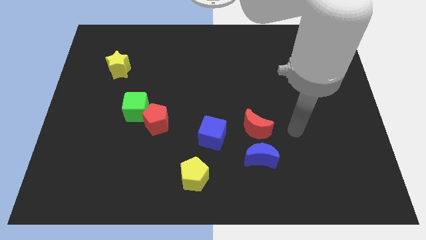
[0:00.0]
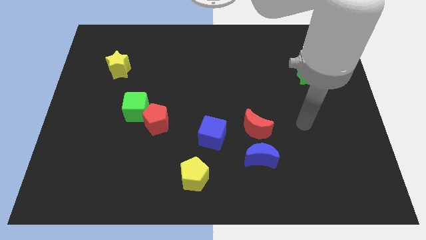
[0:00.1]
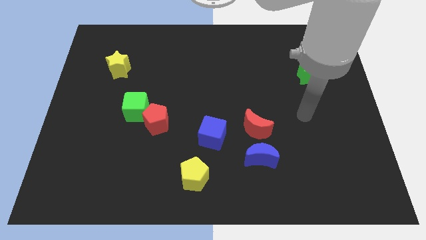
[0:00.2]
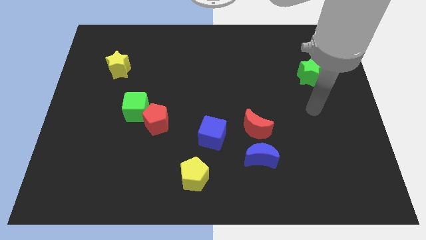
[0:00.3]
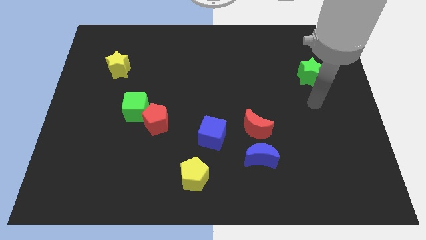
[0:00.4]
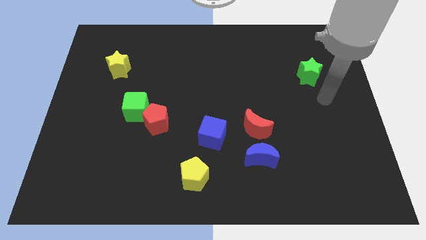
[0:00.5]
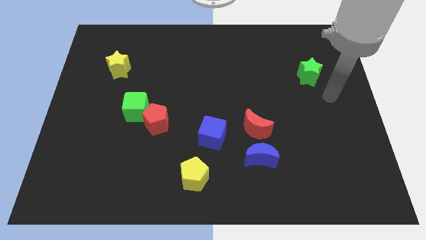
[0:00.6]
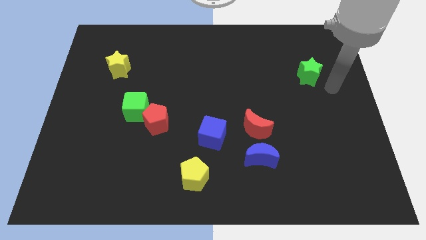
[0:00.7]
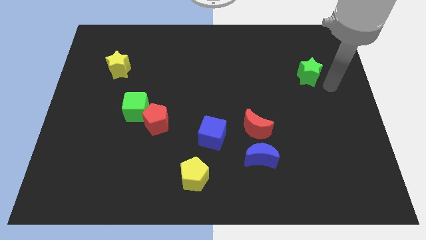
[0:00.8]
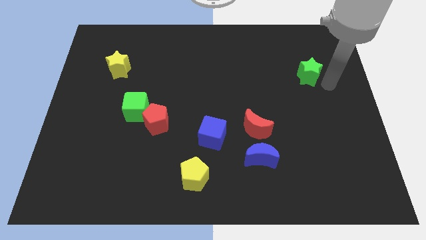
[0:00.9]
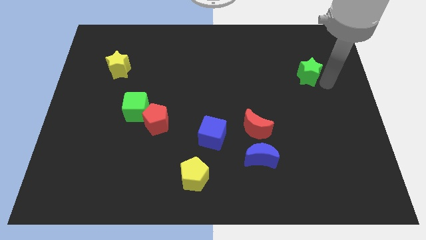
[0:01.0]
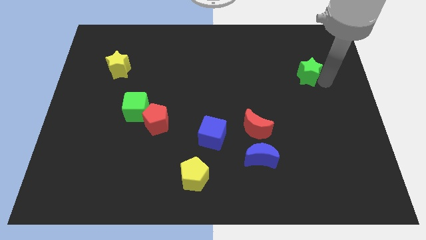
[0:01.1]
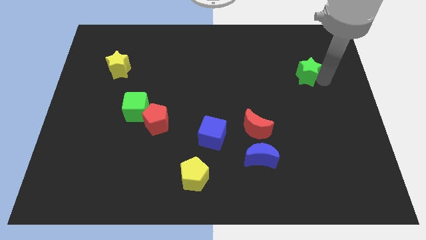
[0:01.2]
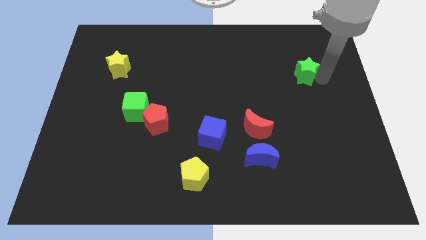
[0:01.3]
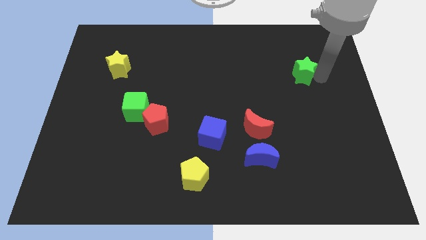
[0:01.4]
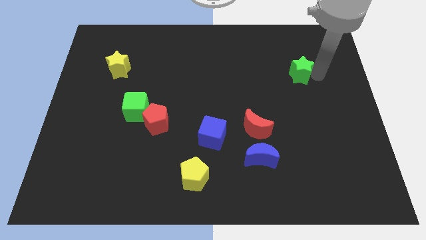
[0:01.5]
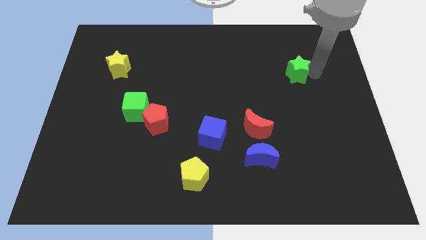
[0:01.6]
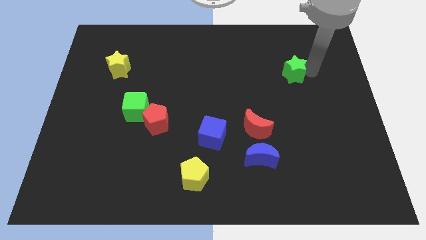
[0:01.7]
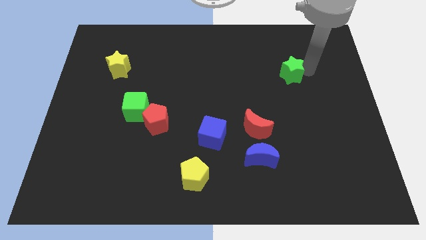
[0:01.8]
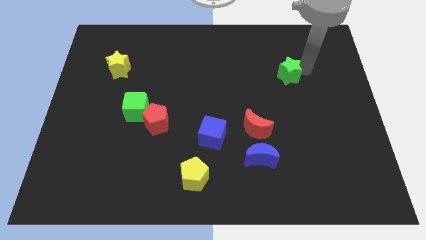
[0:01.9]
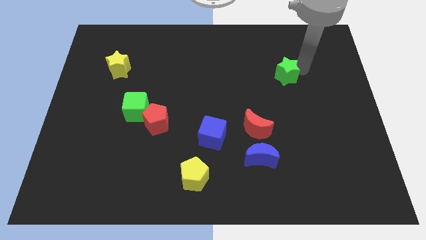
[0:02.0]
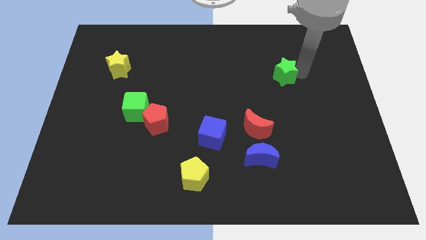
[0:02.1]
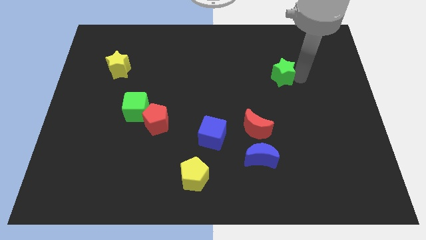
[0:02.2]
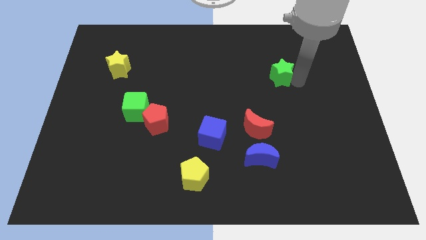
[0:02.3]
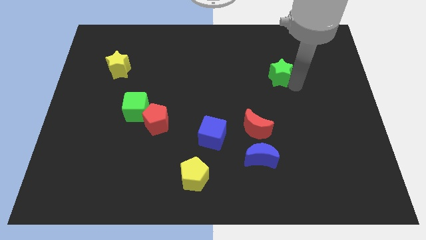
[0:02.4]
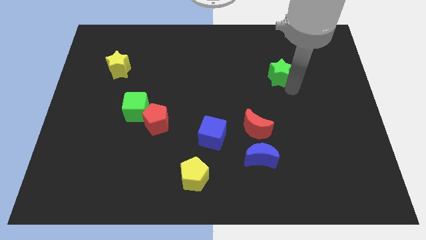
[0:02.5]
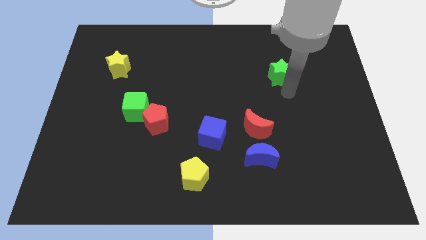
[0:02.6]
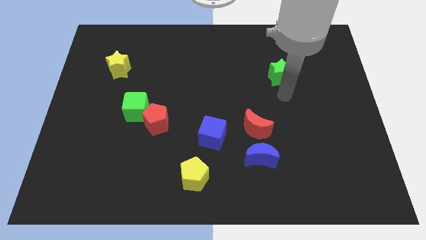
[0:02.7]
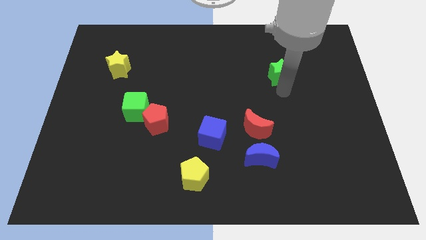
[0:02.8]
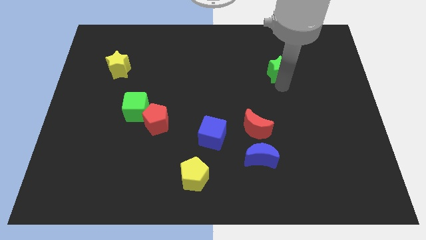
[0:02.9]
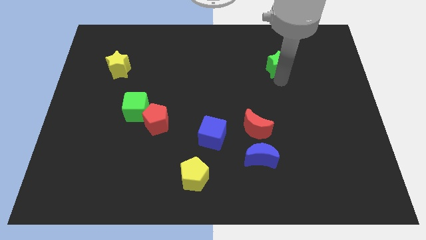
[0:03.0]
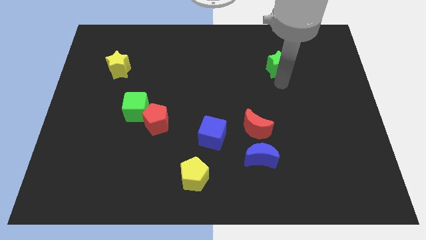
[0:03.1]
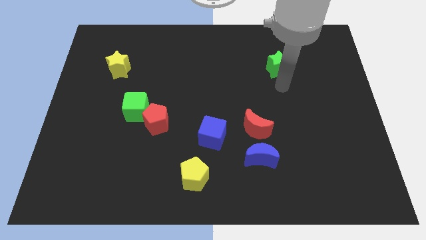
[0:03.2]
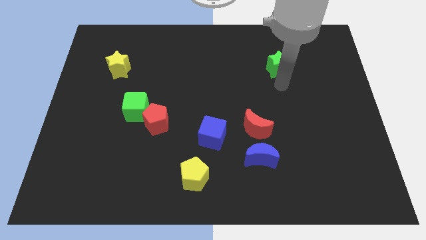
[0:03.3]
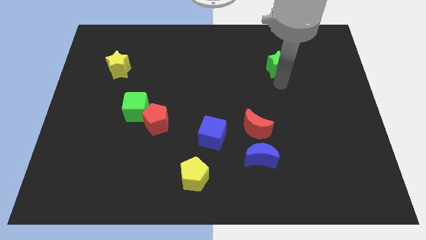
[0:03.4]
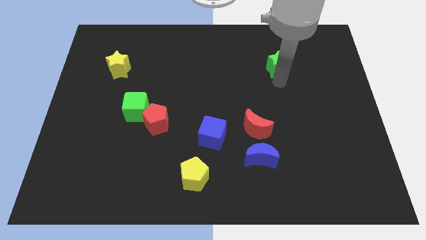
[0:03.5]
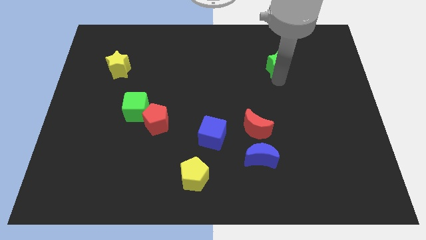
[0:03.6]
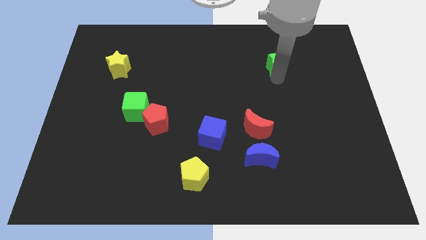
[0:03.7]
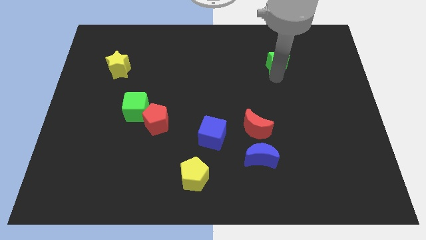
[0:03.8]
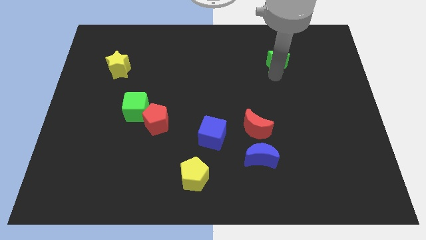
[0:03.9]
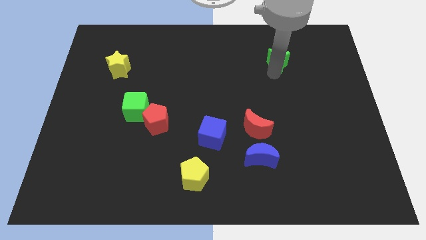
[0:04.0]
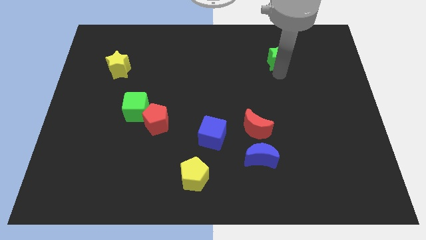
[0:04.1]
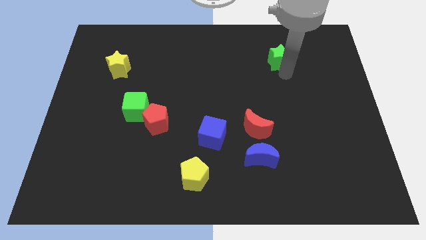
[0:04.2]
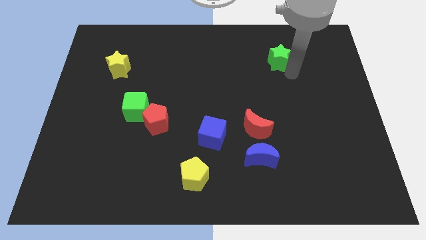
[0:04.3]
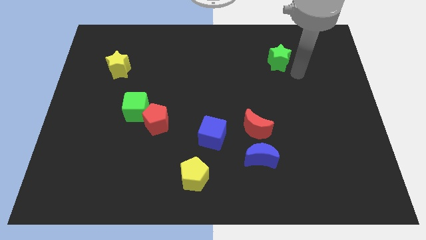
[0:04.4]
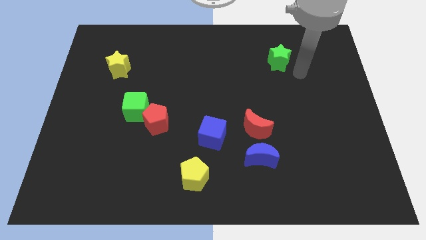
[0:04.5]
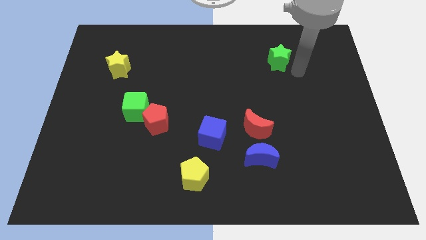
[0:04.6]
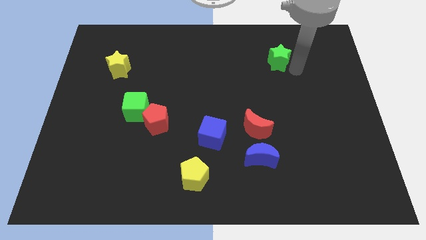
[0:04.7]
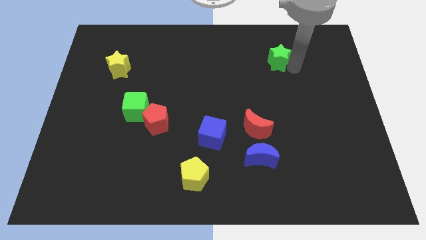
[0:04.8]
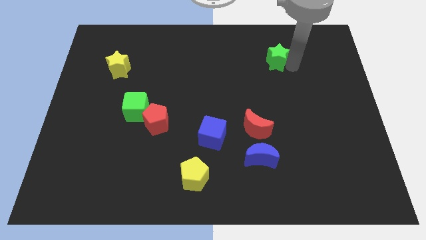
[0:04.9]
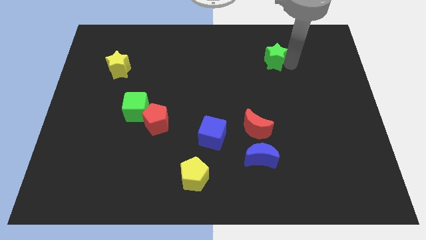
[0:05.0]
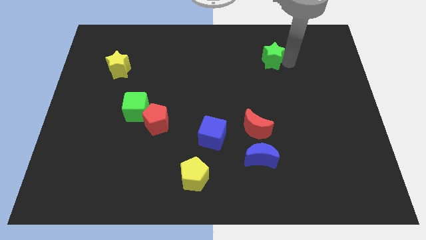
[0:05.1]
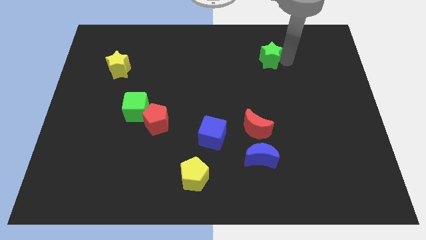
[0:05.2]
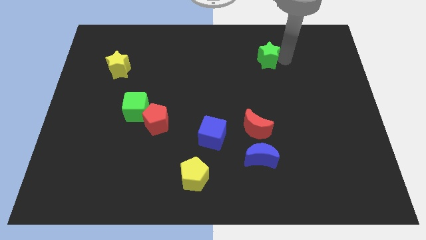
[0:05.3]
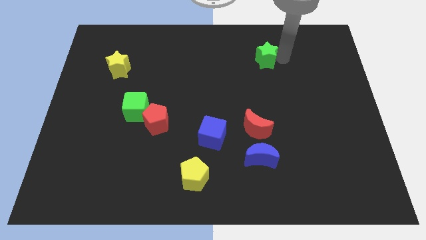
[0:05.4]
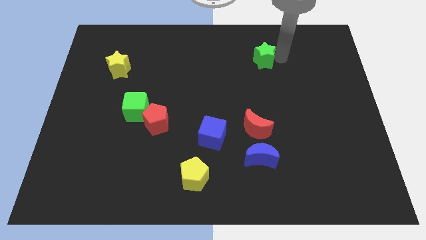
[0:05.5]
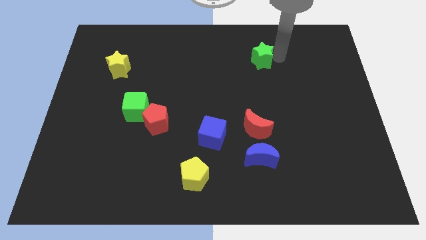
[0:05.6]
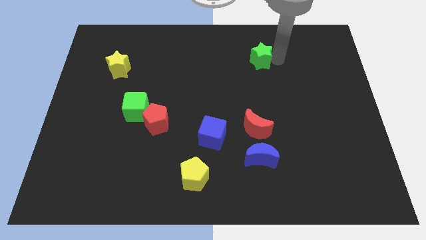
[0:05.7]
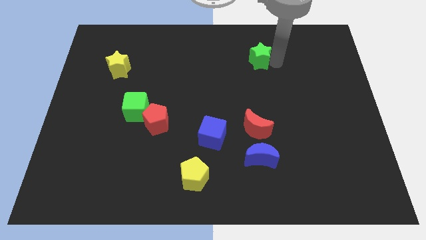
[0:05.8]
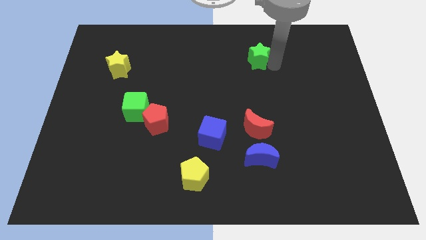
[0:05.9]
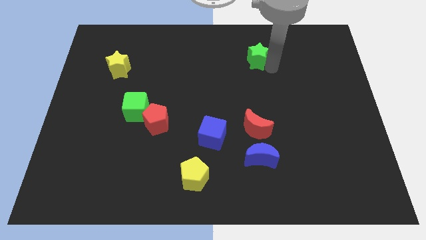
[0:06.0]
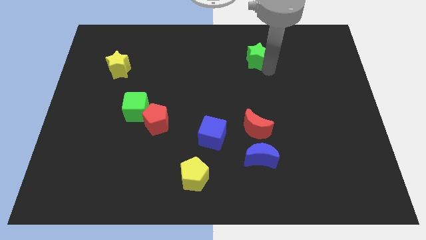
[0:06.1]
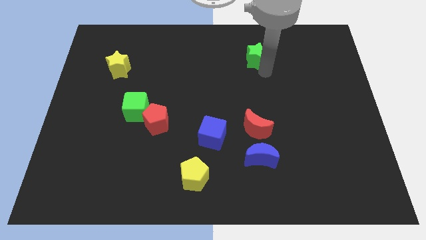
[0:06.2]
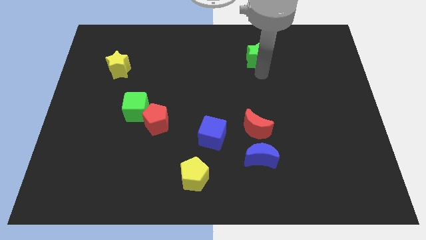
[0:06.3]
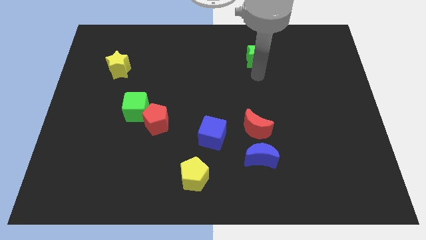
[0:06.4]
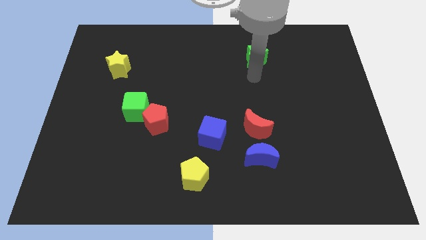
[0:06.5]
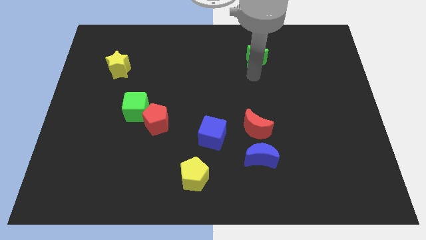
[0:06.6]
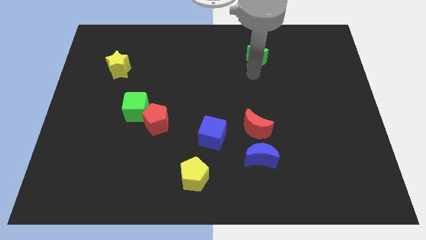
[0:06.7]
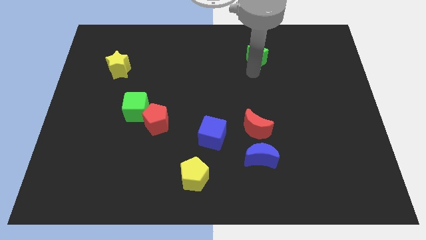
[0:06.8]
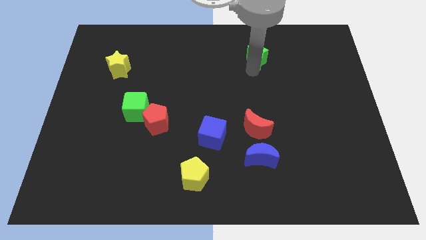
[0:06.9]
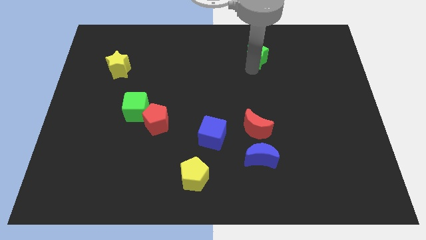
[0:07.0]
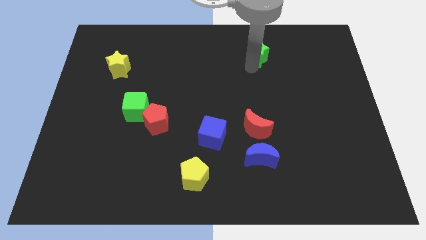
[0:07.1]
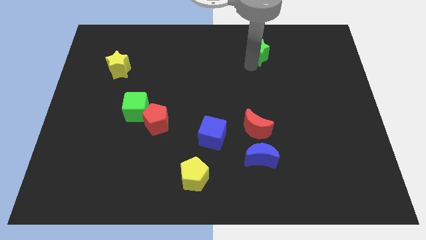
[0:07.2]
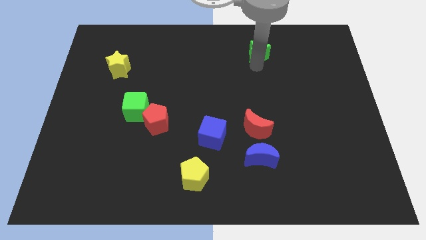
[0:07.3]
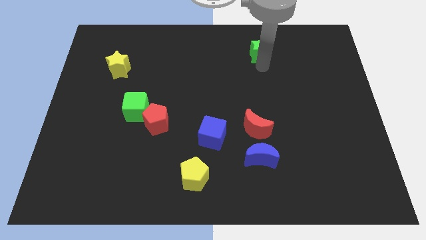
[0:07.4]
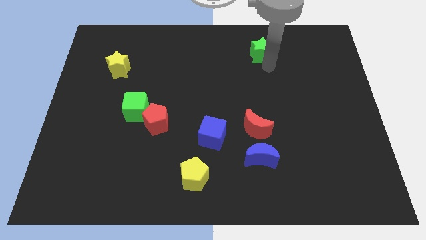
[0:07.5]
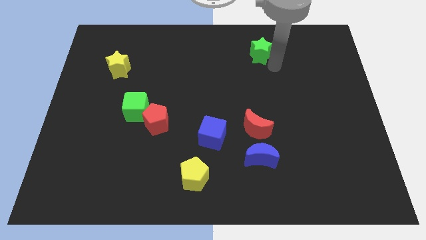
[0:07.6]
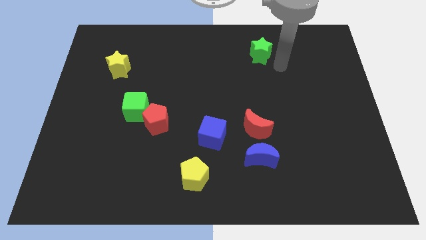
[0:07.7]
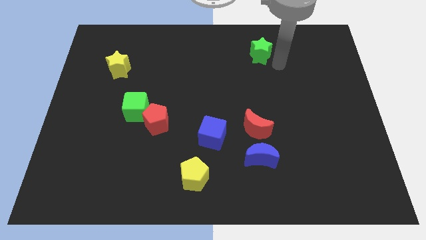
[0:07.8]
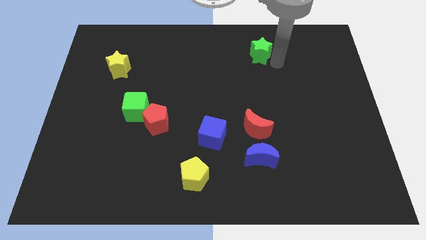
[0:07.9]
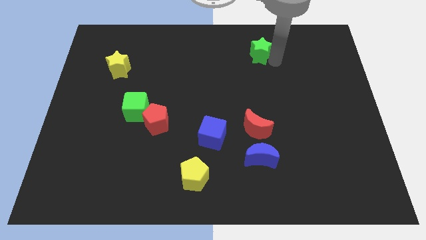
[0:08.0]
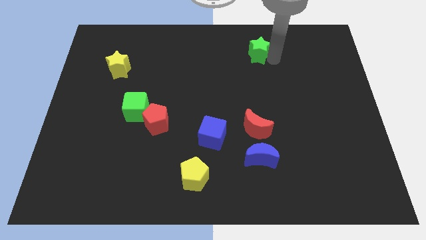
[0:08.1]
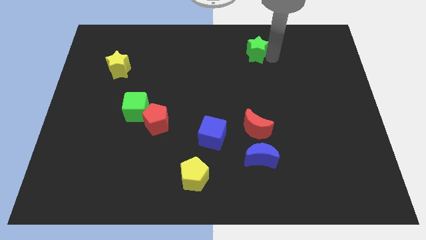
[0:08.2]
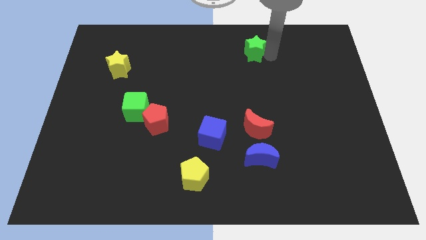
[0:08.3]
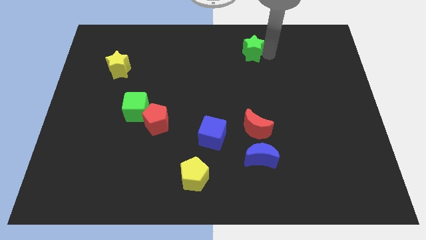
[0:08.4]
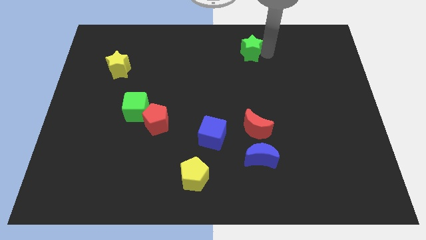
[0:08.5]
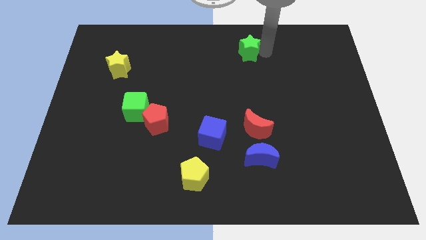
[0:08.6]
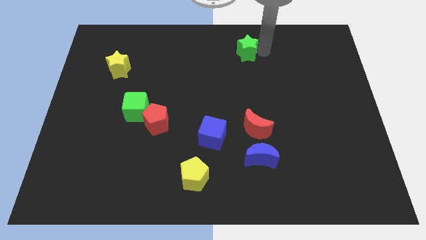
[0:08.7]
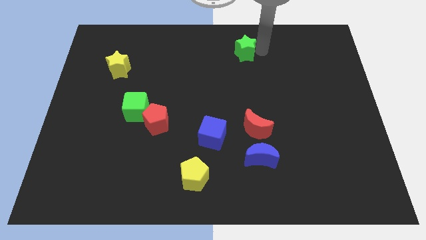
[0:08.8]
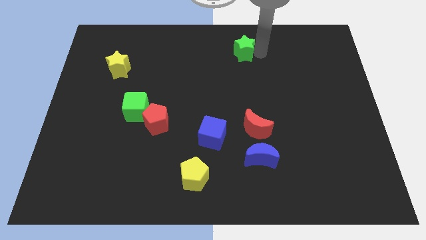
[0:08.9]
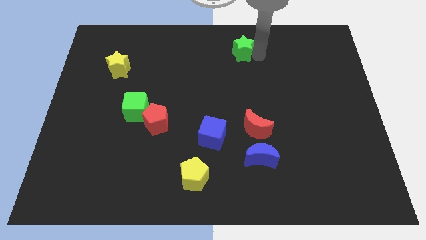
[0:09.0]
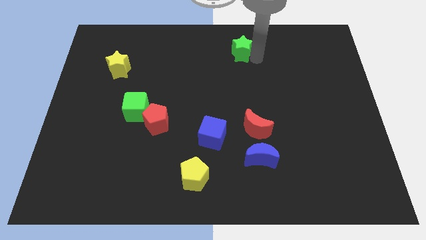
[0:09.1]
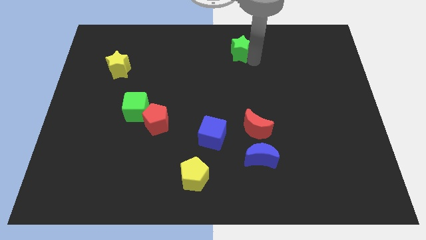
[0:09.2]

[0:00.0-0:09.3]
slide the green star to the top
